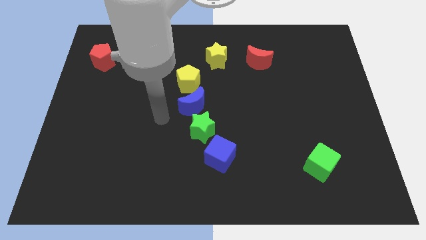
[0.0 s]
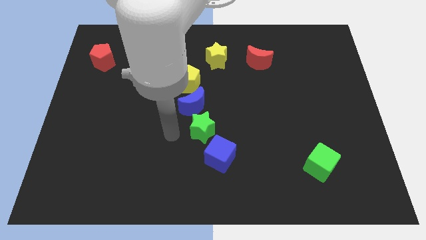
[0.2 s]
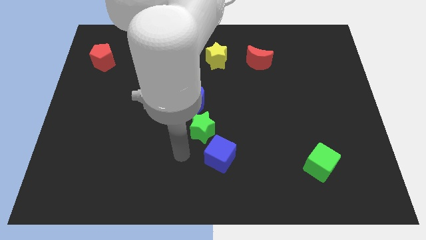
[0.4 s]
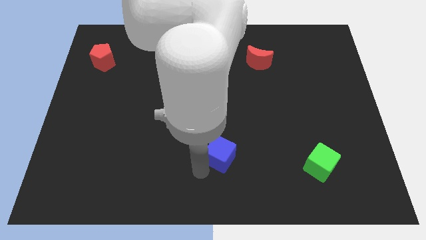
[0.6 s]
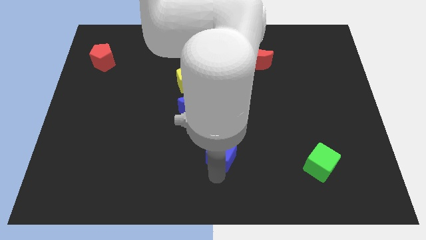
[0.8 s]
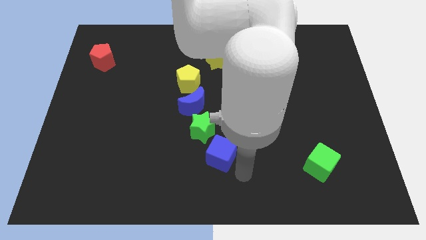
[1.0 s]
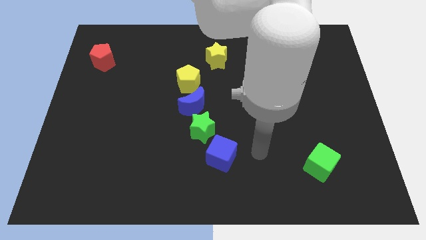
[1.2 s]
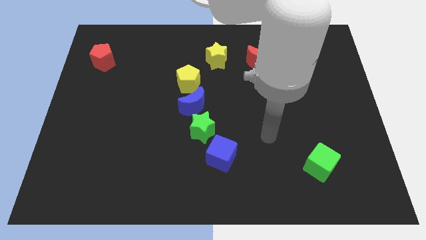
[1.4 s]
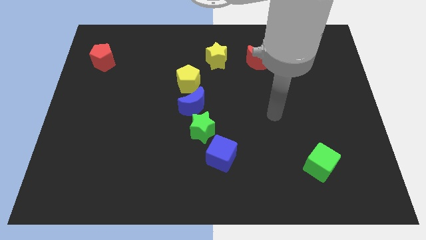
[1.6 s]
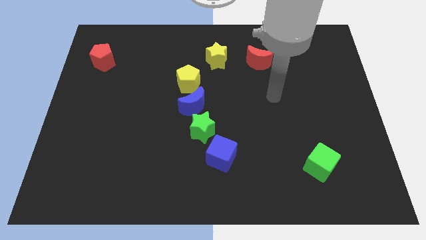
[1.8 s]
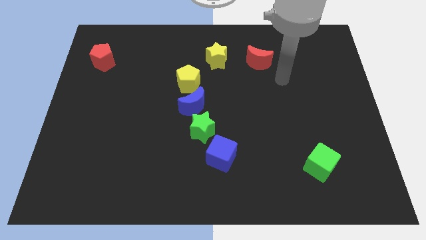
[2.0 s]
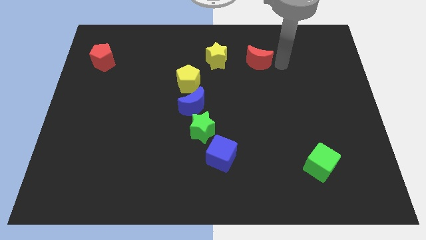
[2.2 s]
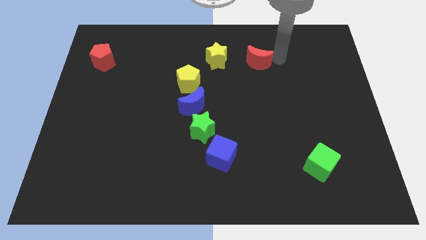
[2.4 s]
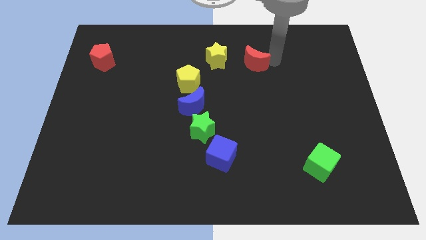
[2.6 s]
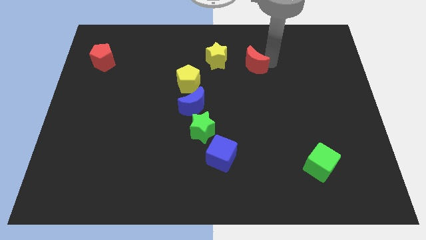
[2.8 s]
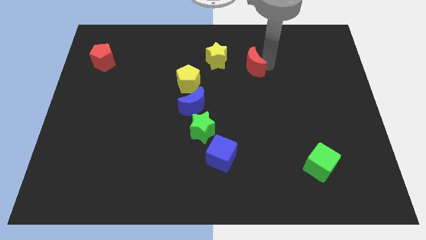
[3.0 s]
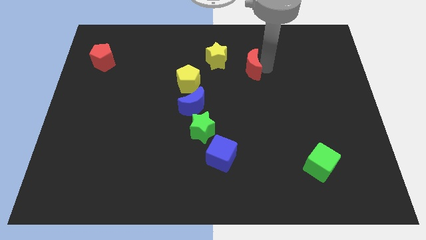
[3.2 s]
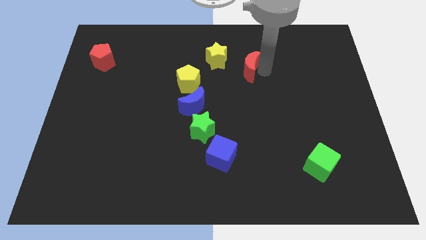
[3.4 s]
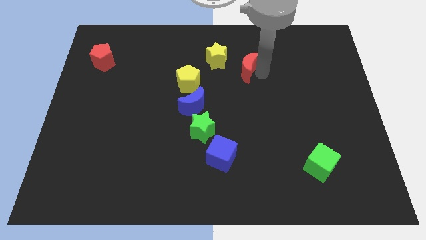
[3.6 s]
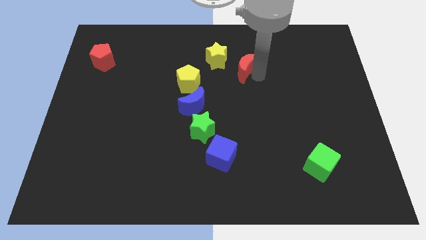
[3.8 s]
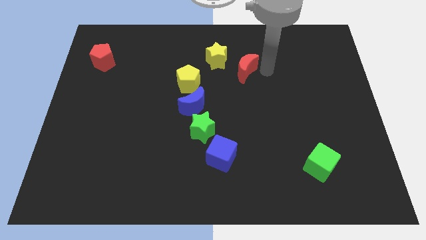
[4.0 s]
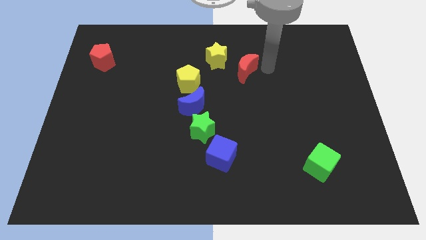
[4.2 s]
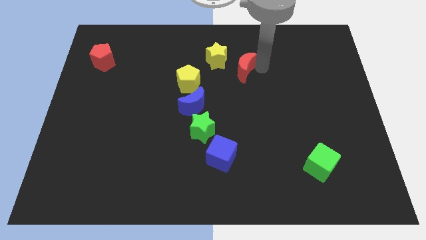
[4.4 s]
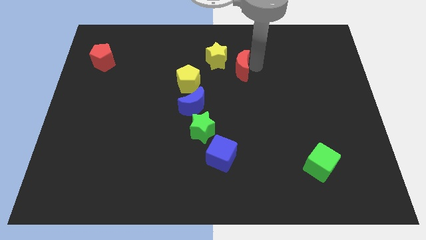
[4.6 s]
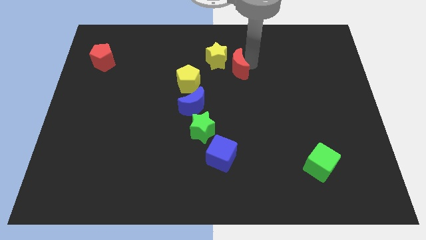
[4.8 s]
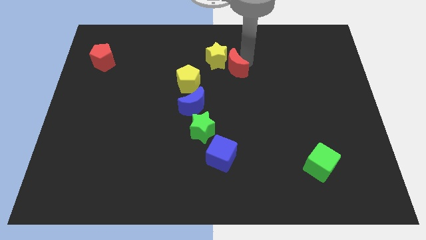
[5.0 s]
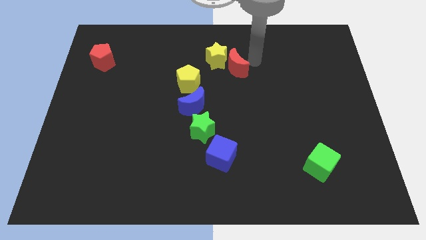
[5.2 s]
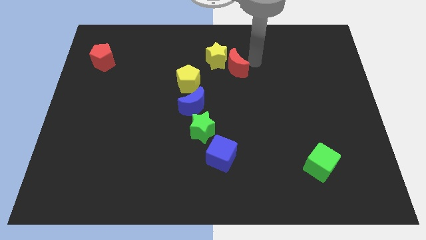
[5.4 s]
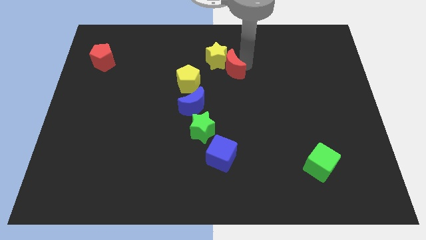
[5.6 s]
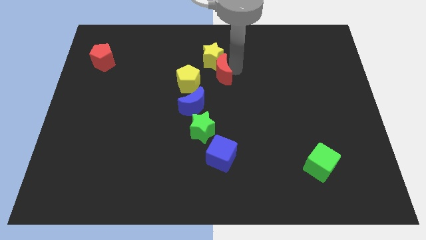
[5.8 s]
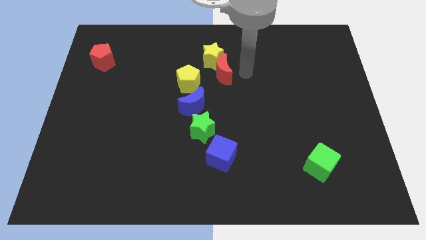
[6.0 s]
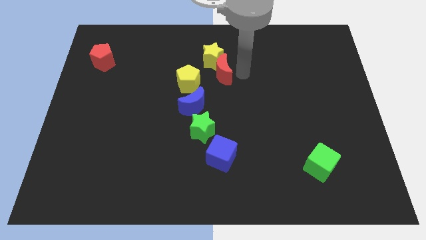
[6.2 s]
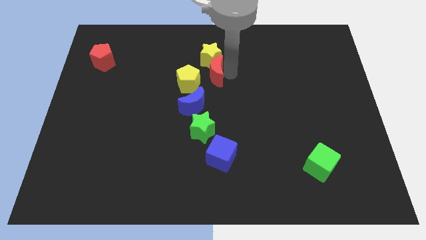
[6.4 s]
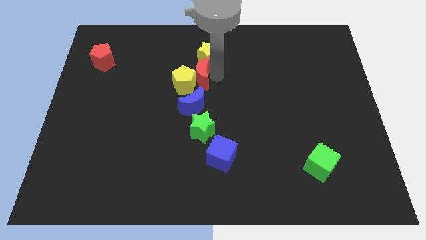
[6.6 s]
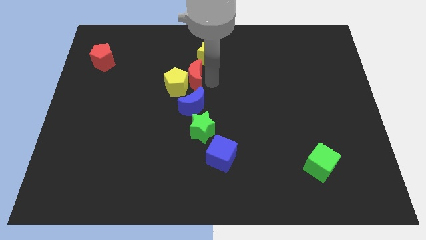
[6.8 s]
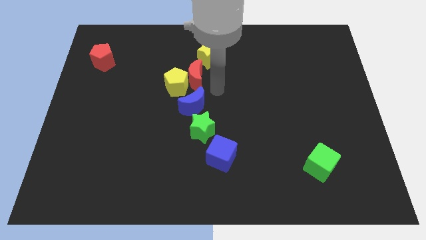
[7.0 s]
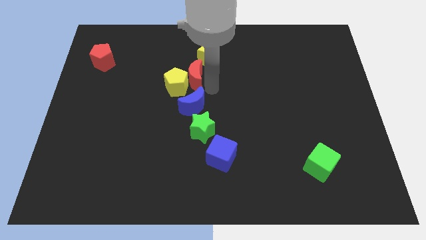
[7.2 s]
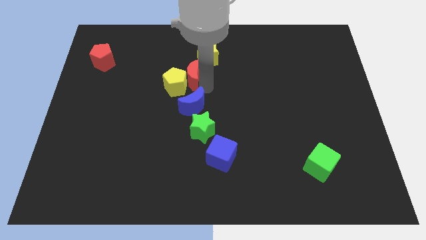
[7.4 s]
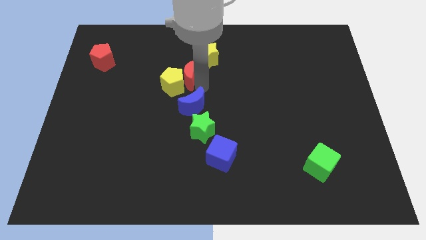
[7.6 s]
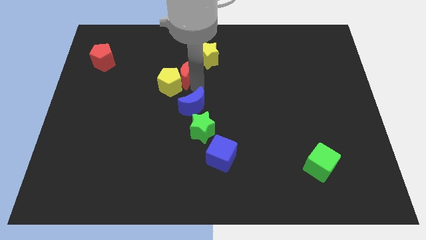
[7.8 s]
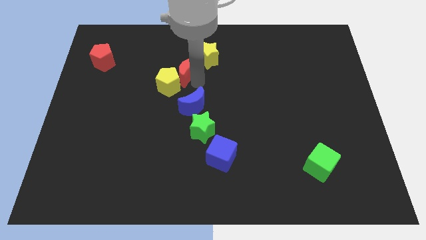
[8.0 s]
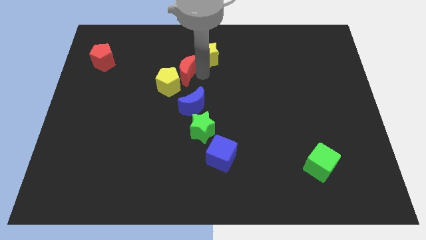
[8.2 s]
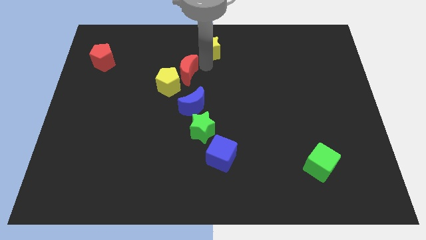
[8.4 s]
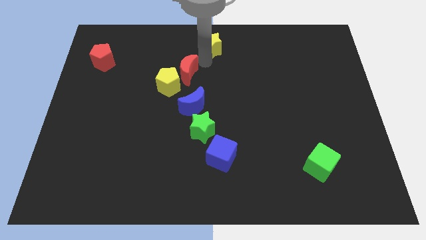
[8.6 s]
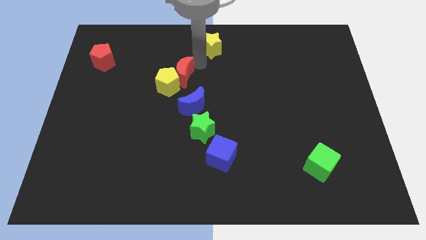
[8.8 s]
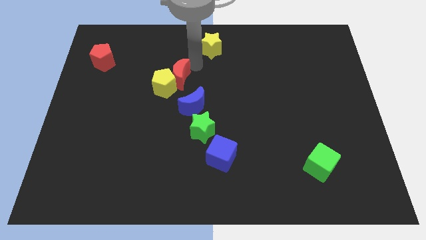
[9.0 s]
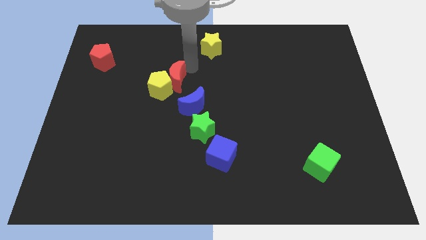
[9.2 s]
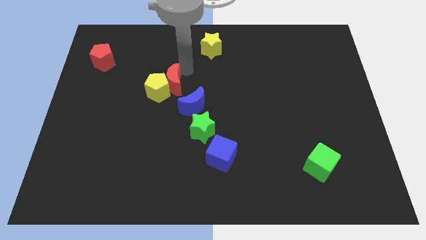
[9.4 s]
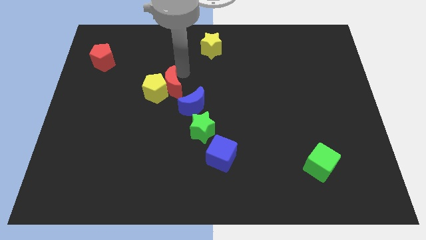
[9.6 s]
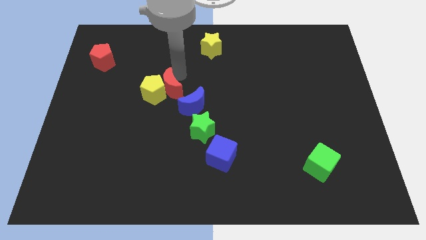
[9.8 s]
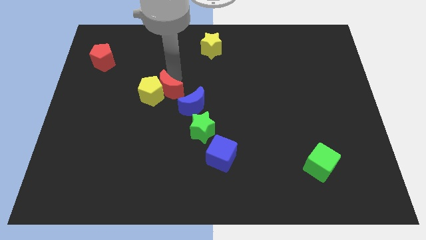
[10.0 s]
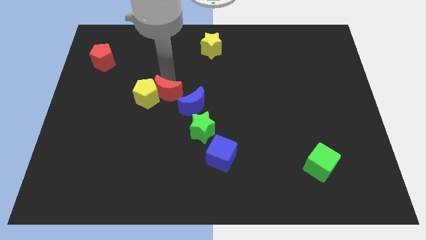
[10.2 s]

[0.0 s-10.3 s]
push the red moon downwards and left diagonally

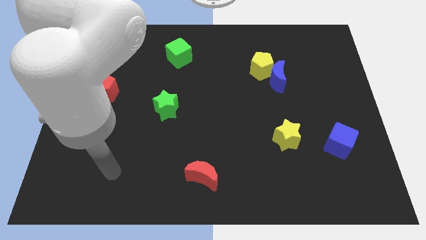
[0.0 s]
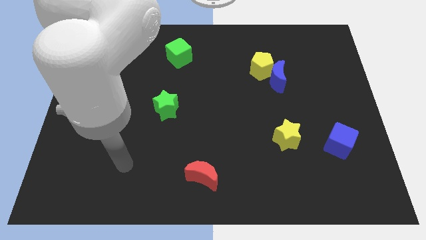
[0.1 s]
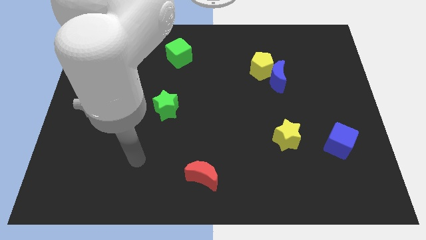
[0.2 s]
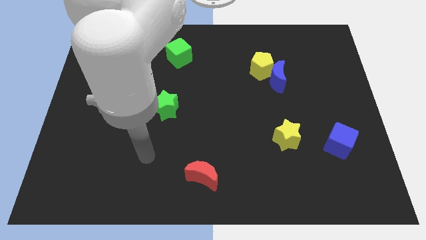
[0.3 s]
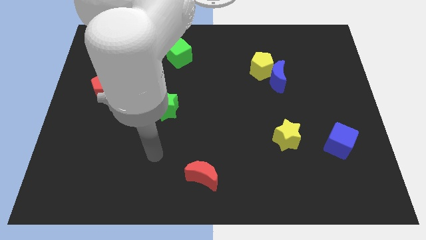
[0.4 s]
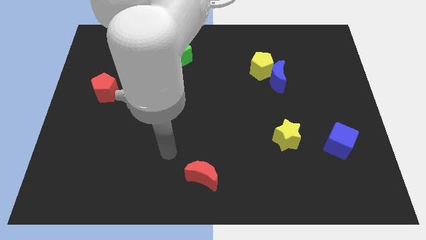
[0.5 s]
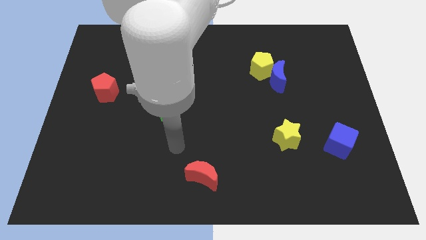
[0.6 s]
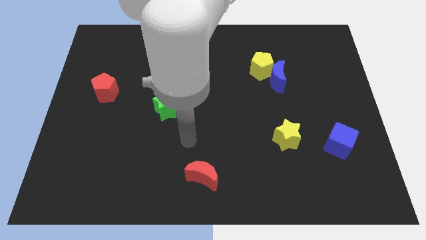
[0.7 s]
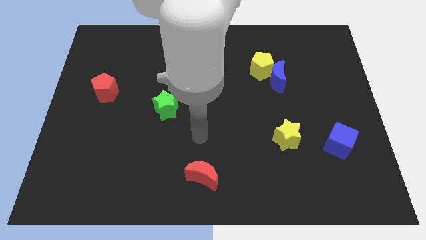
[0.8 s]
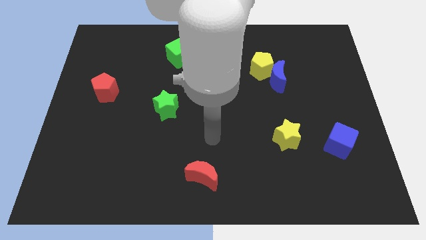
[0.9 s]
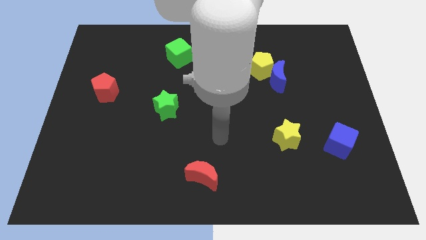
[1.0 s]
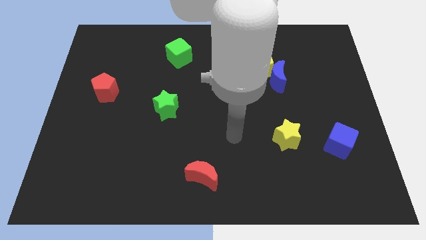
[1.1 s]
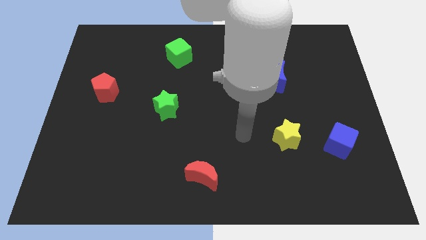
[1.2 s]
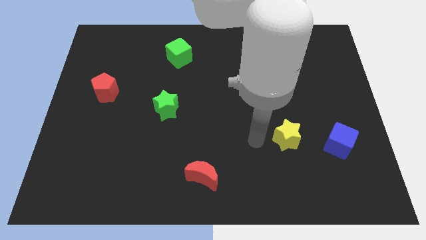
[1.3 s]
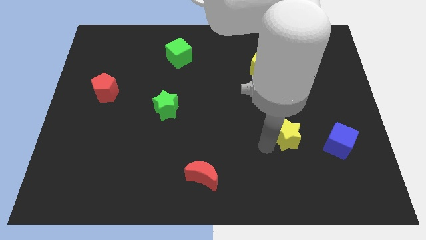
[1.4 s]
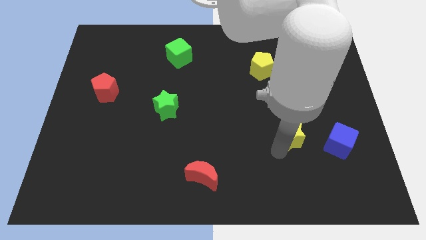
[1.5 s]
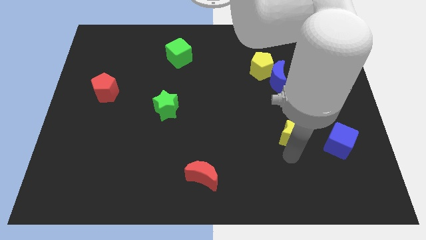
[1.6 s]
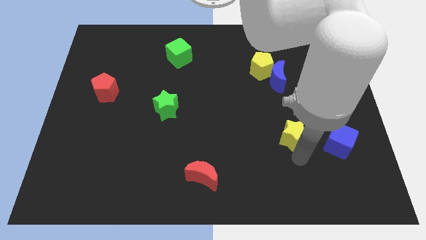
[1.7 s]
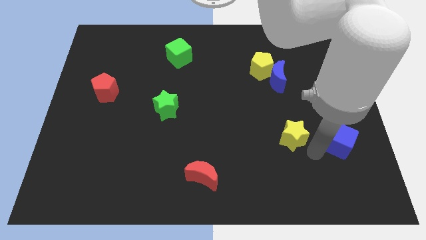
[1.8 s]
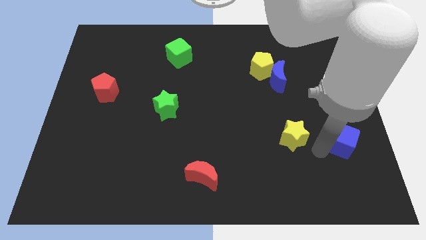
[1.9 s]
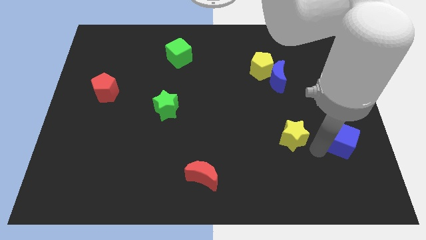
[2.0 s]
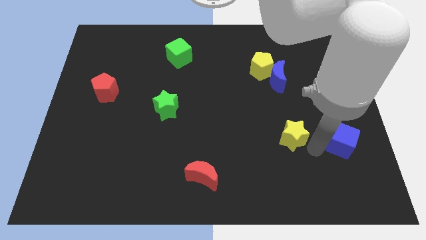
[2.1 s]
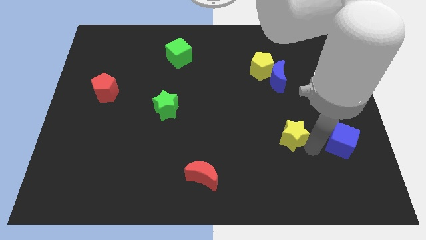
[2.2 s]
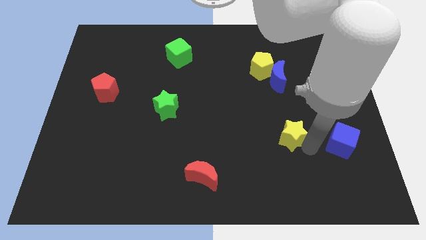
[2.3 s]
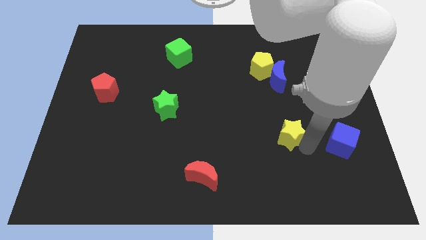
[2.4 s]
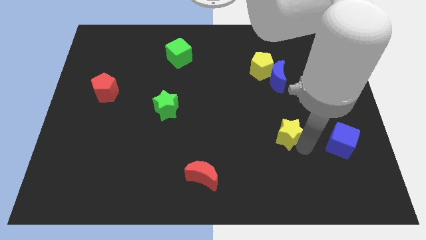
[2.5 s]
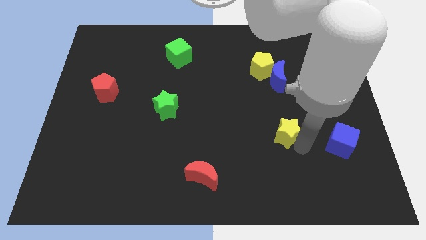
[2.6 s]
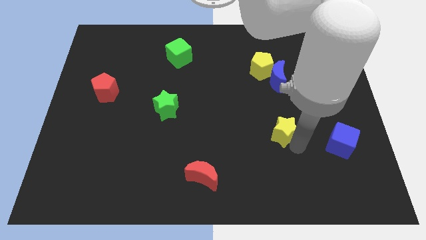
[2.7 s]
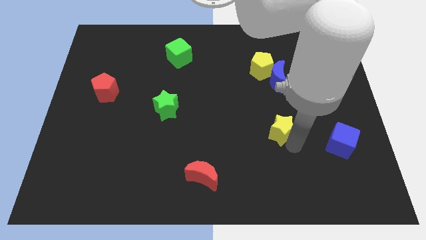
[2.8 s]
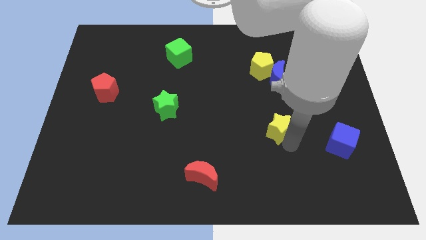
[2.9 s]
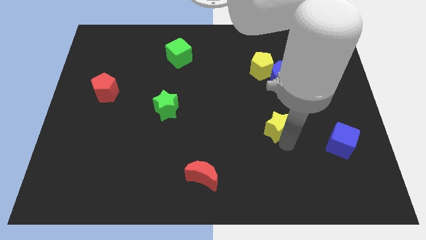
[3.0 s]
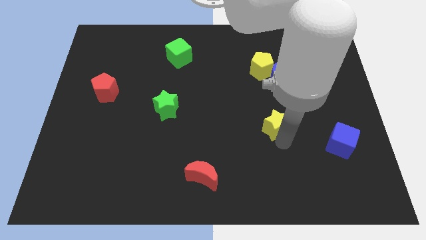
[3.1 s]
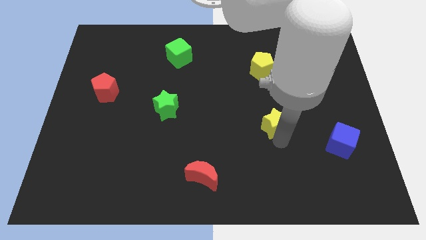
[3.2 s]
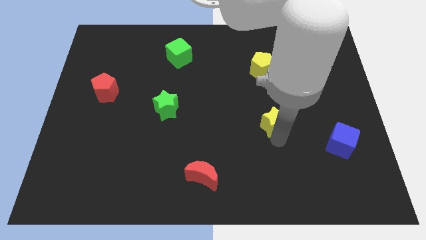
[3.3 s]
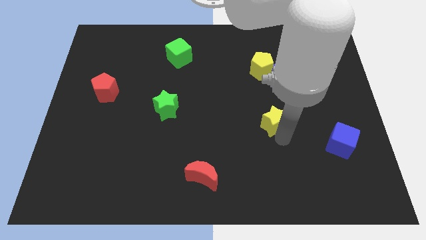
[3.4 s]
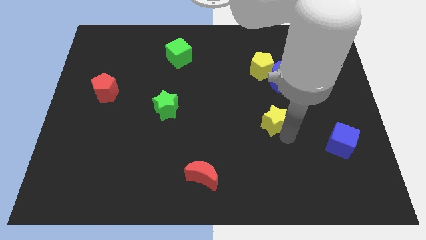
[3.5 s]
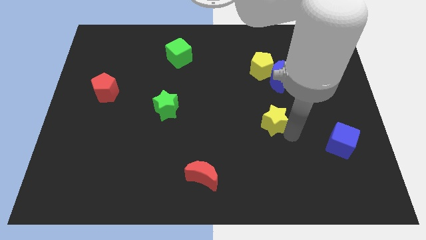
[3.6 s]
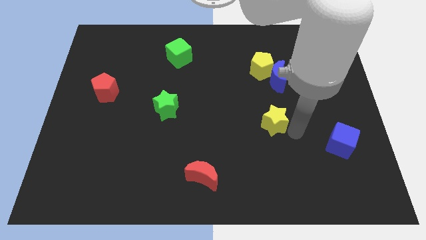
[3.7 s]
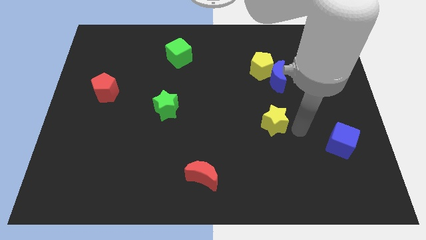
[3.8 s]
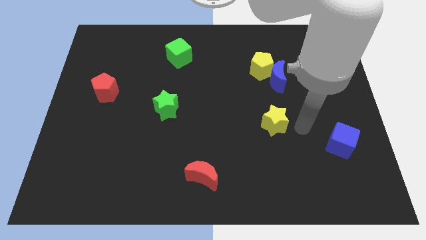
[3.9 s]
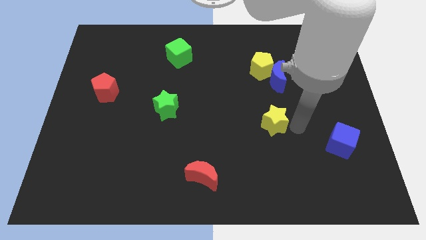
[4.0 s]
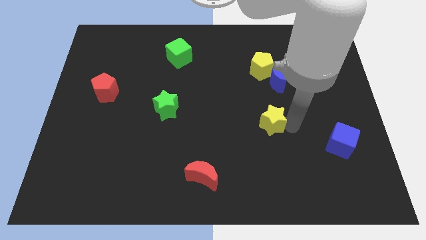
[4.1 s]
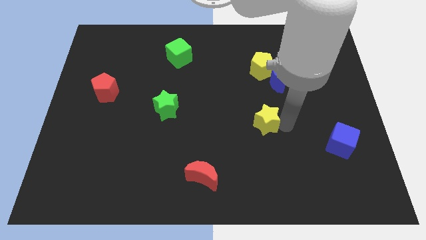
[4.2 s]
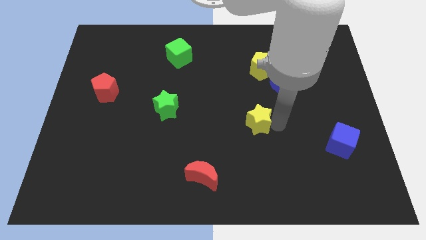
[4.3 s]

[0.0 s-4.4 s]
move the yellow star up and to the left diagonally a bit
